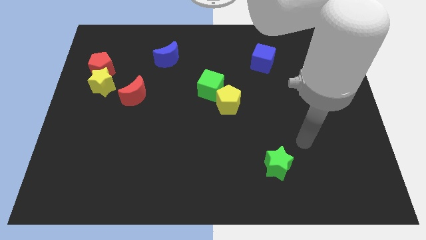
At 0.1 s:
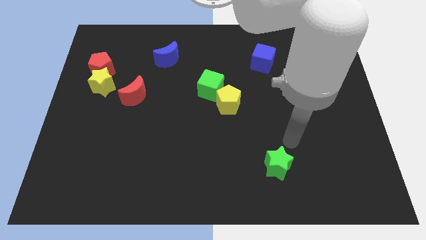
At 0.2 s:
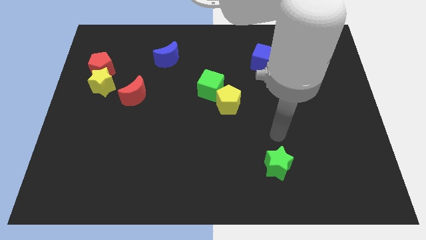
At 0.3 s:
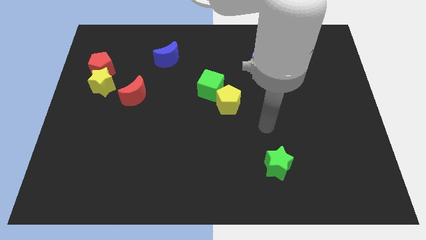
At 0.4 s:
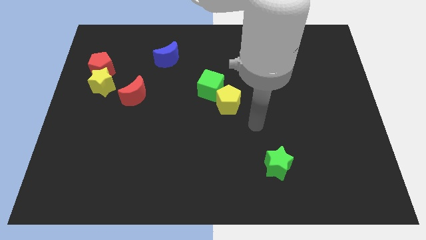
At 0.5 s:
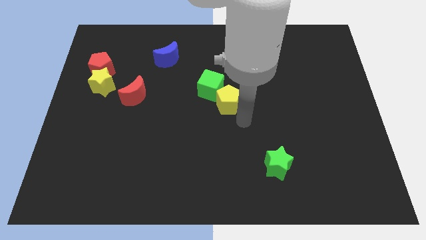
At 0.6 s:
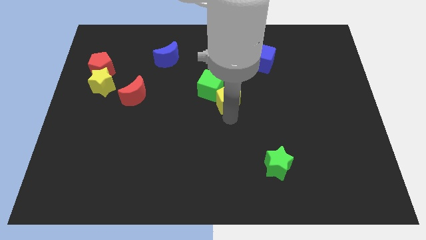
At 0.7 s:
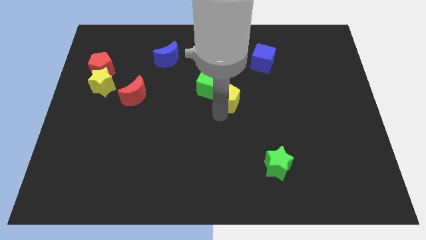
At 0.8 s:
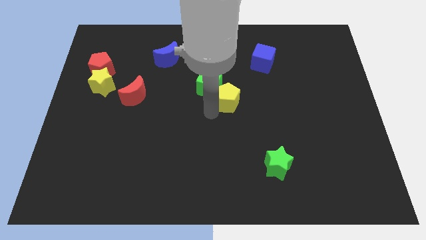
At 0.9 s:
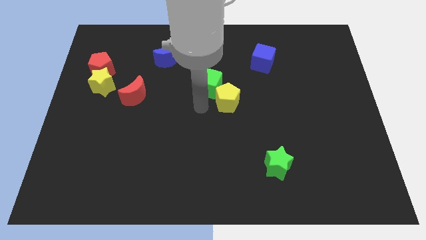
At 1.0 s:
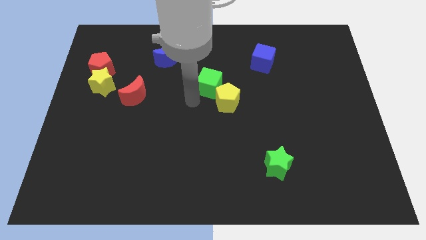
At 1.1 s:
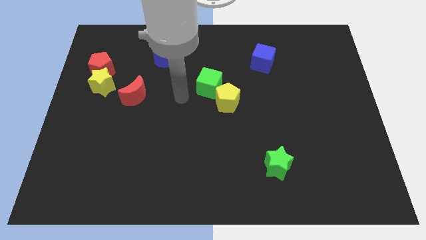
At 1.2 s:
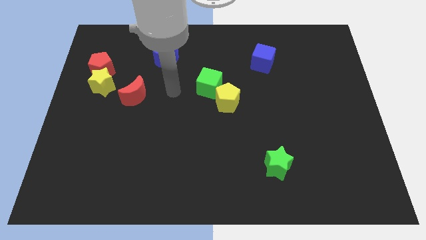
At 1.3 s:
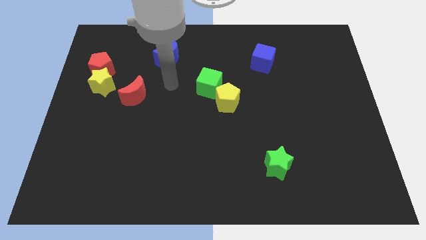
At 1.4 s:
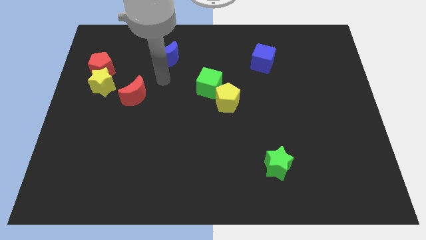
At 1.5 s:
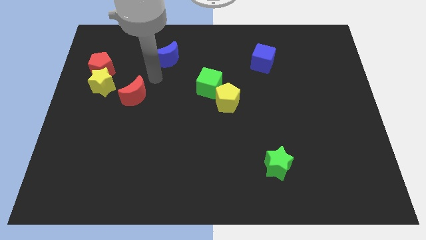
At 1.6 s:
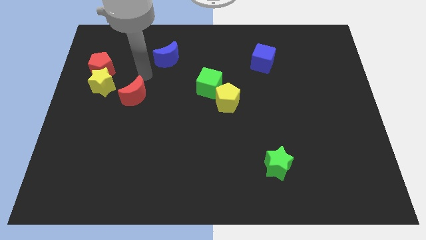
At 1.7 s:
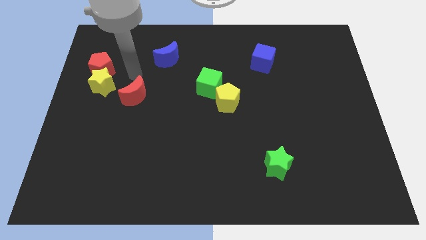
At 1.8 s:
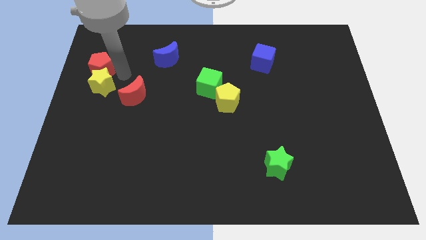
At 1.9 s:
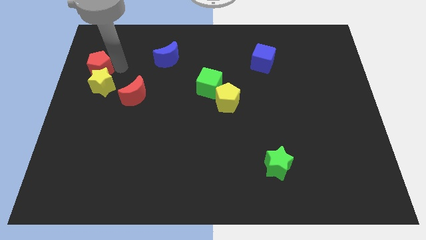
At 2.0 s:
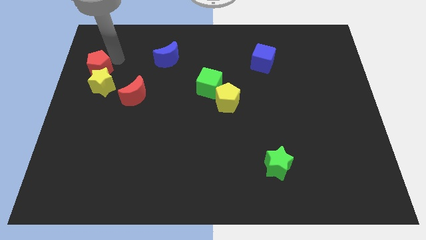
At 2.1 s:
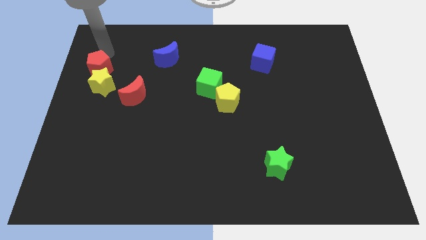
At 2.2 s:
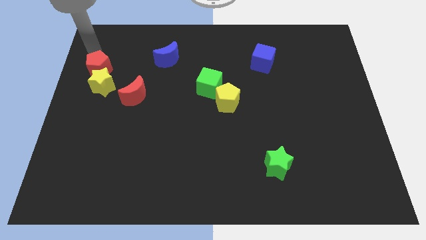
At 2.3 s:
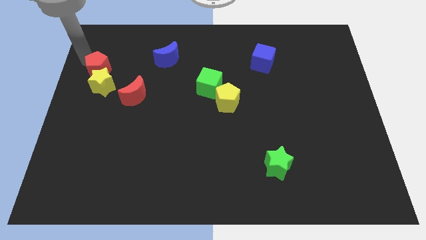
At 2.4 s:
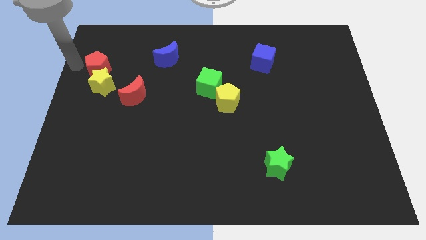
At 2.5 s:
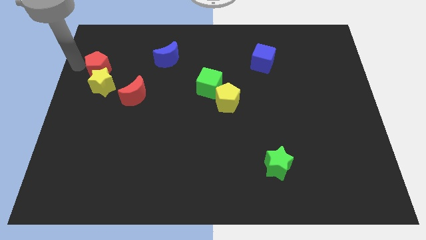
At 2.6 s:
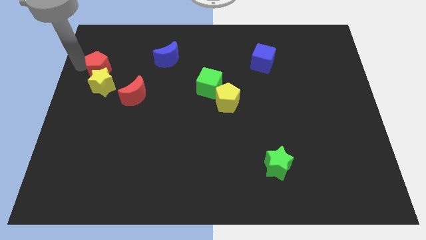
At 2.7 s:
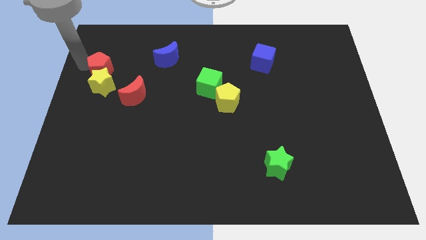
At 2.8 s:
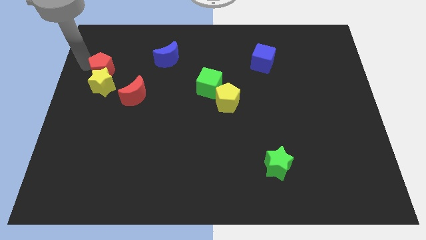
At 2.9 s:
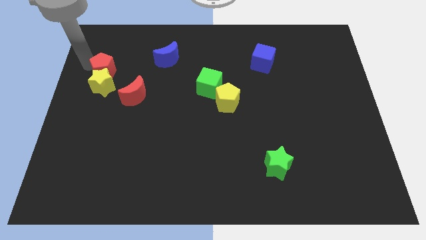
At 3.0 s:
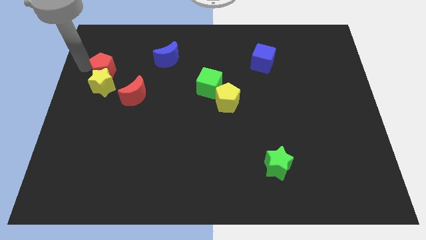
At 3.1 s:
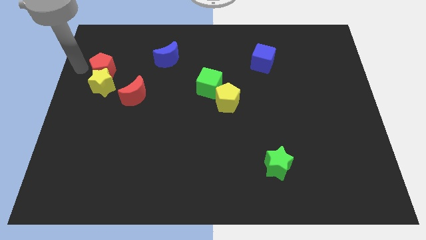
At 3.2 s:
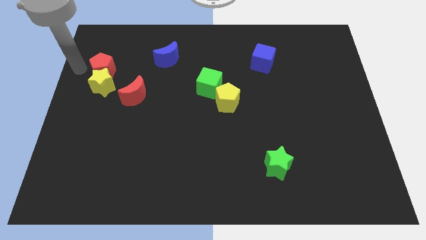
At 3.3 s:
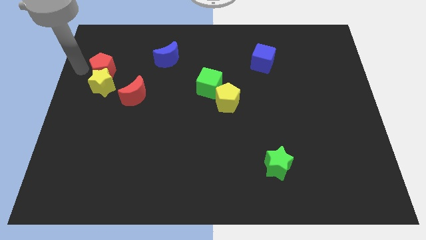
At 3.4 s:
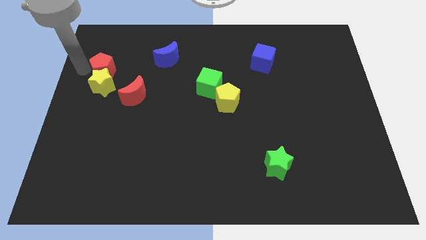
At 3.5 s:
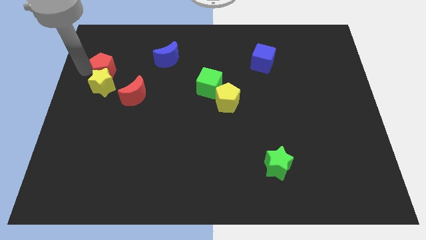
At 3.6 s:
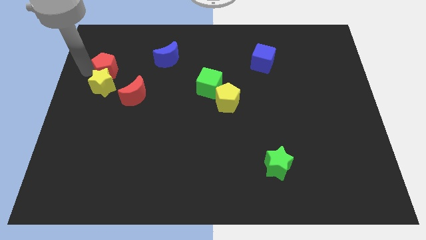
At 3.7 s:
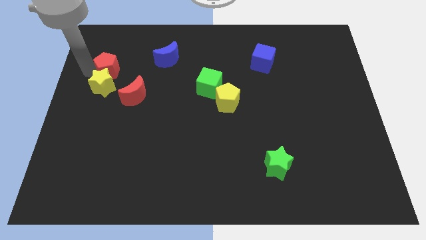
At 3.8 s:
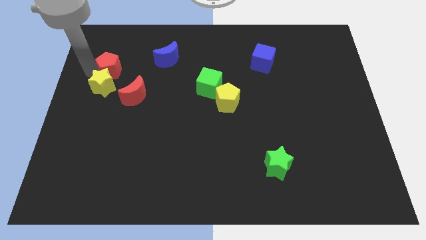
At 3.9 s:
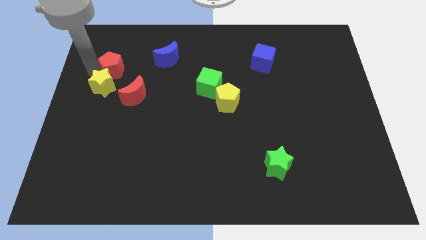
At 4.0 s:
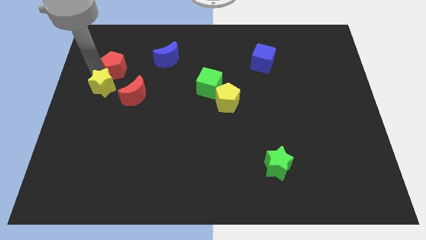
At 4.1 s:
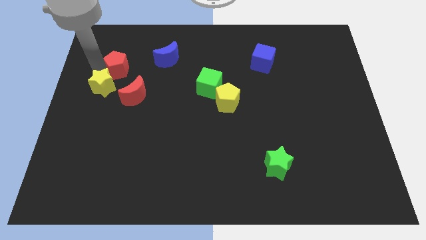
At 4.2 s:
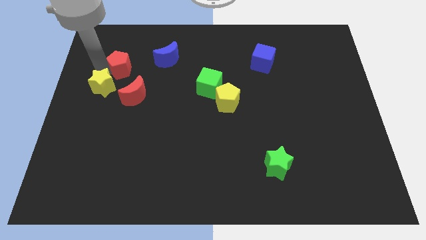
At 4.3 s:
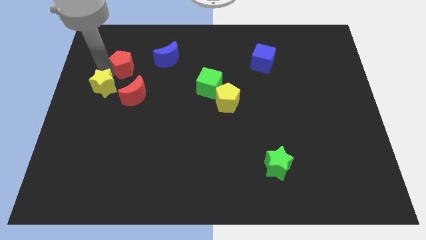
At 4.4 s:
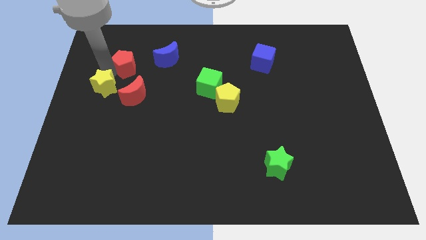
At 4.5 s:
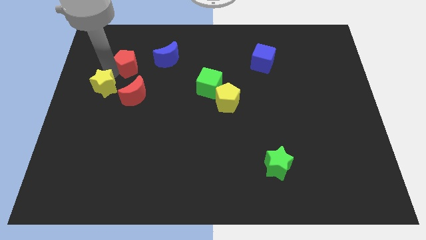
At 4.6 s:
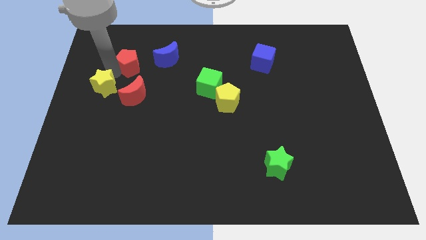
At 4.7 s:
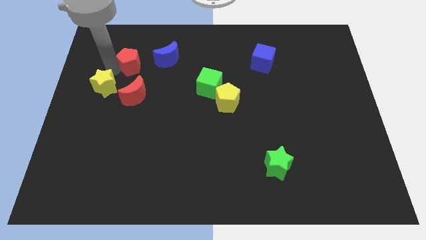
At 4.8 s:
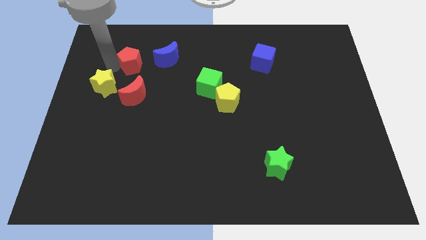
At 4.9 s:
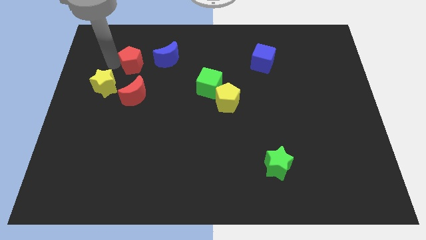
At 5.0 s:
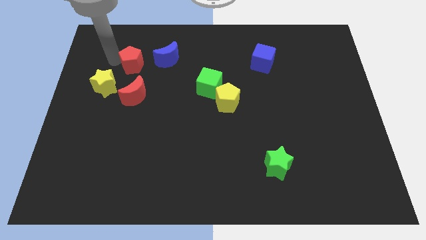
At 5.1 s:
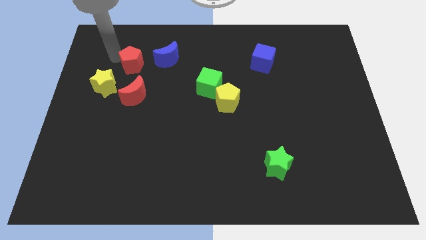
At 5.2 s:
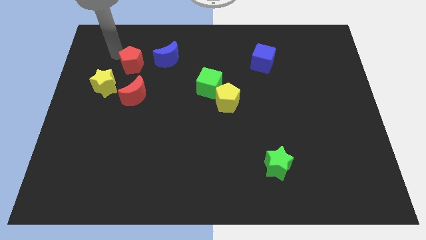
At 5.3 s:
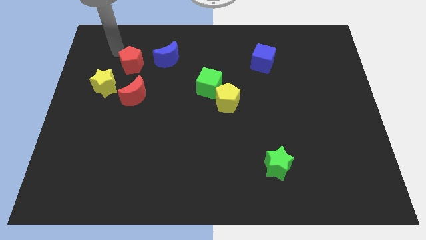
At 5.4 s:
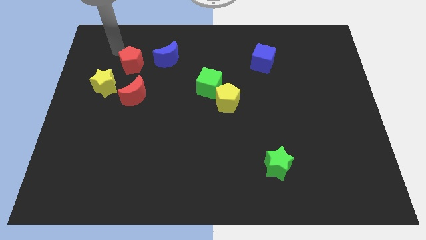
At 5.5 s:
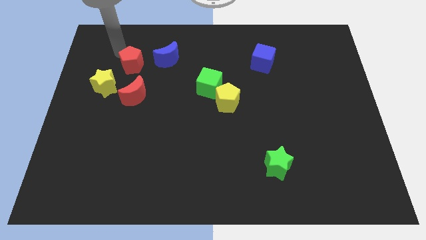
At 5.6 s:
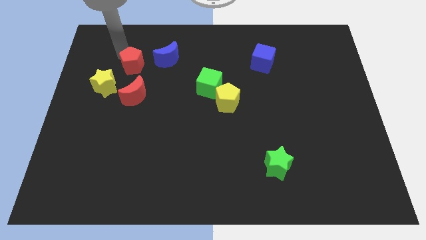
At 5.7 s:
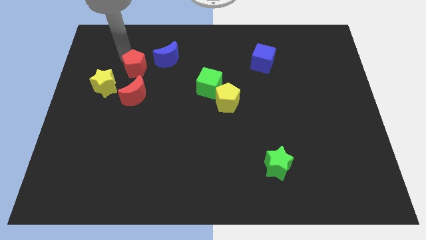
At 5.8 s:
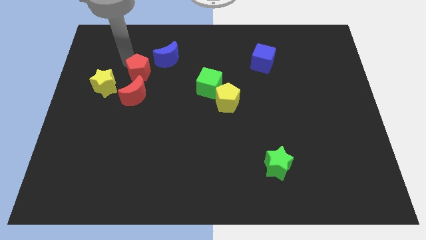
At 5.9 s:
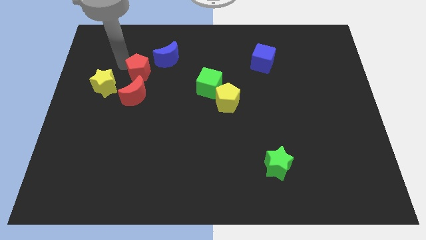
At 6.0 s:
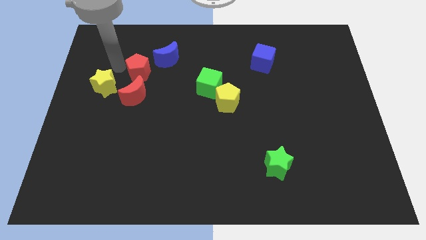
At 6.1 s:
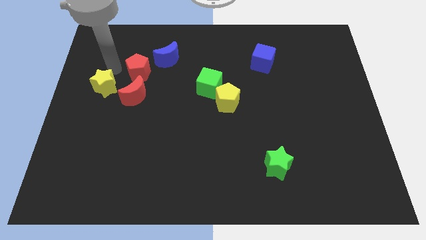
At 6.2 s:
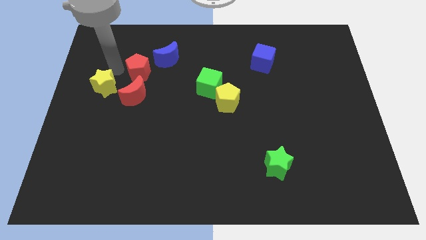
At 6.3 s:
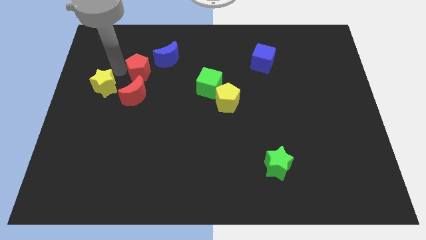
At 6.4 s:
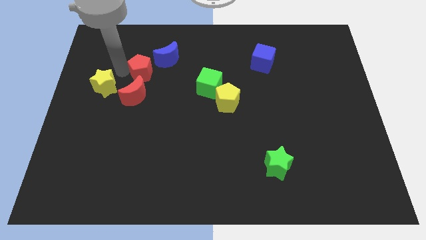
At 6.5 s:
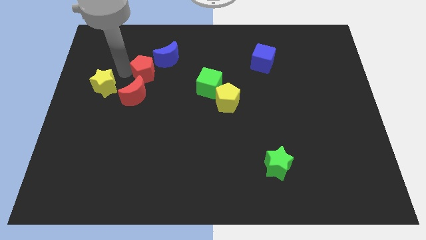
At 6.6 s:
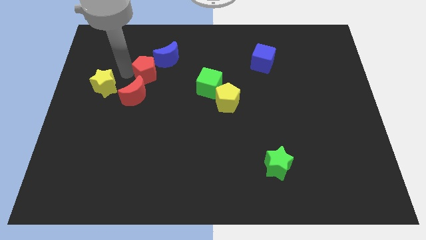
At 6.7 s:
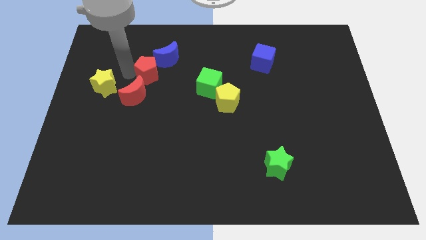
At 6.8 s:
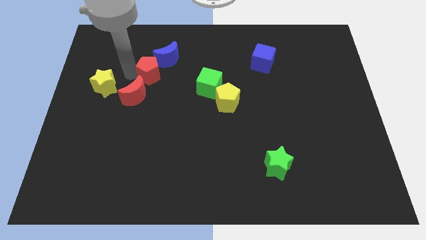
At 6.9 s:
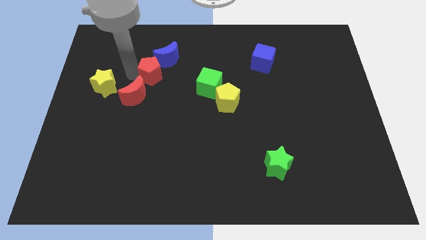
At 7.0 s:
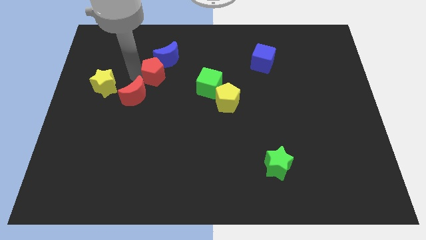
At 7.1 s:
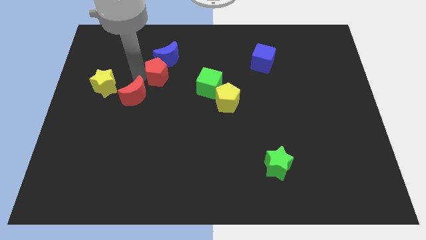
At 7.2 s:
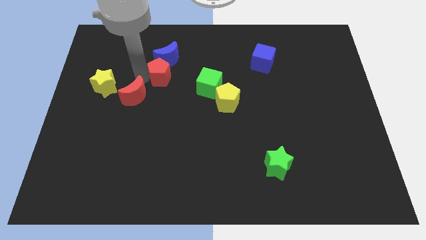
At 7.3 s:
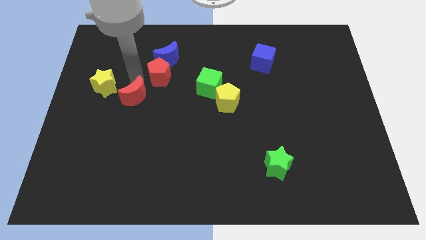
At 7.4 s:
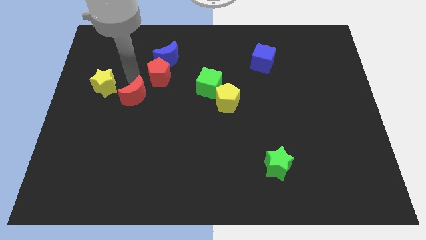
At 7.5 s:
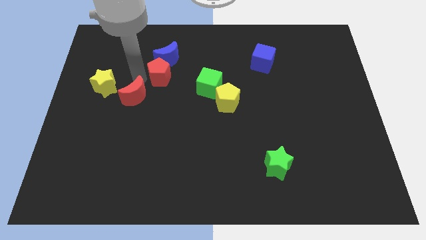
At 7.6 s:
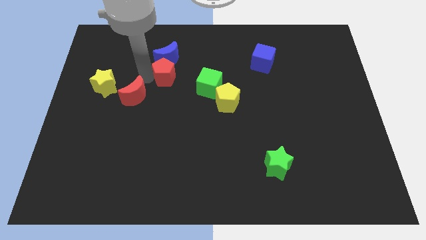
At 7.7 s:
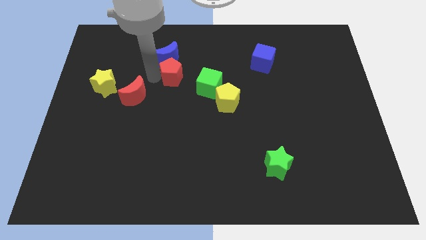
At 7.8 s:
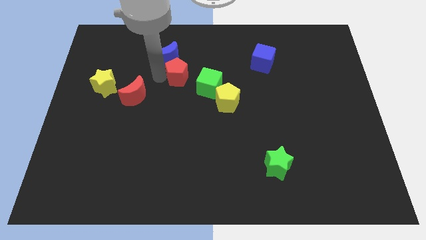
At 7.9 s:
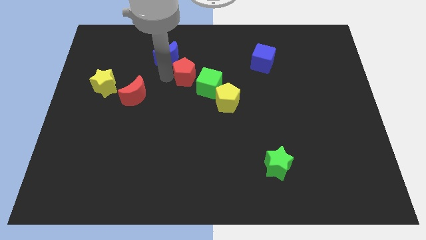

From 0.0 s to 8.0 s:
slide the red pentagon to the right

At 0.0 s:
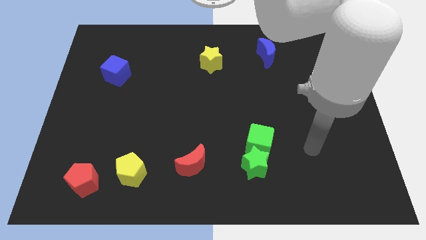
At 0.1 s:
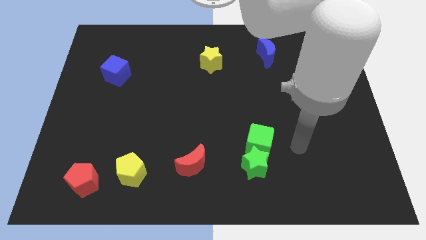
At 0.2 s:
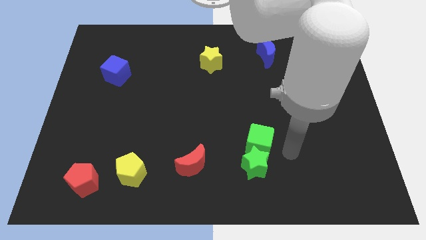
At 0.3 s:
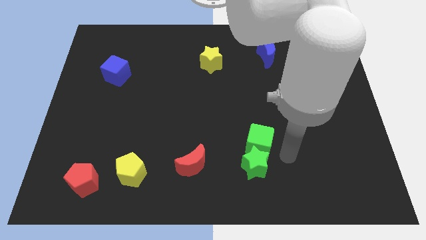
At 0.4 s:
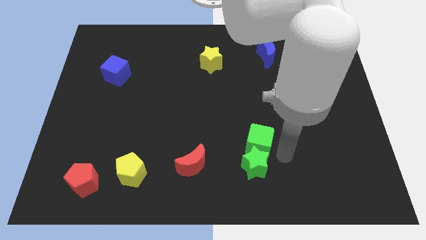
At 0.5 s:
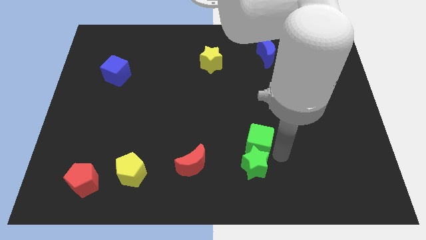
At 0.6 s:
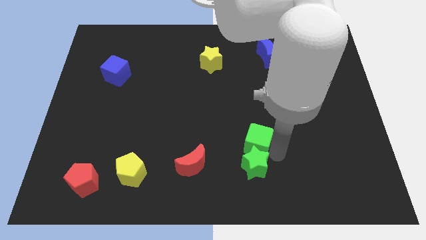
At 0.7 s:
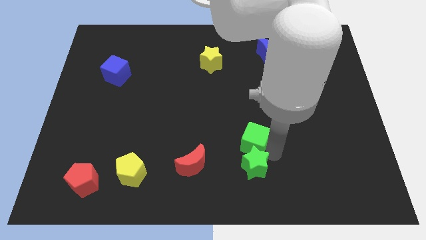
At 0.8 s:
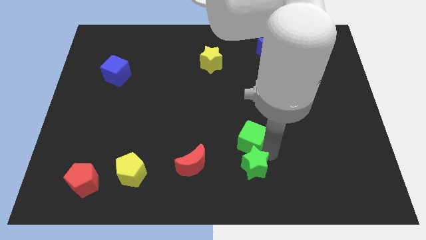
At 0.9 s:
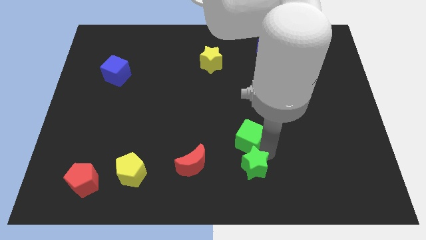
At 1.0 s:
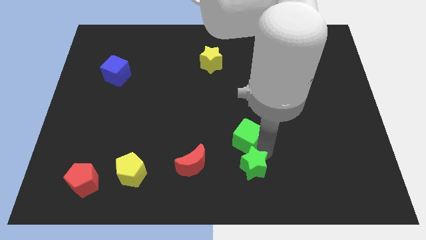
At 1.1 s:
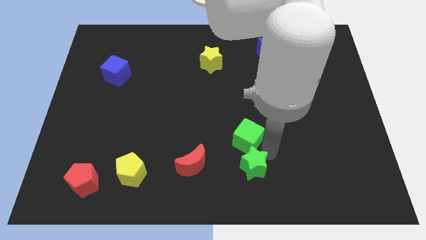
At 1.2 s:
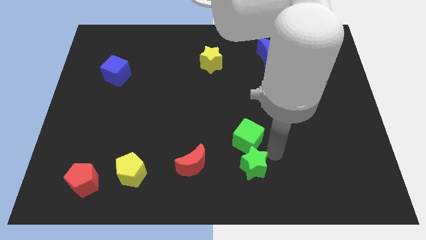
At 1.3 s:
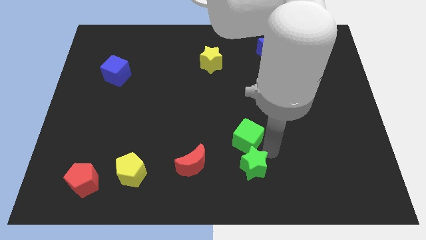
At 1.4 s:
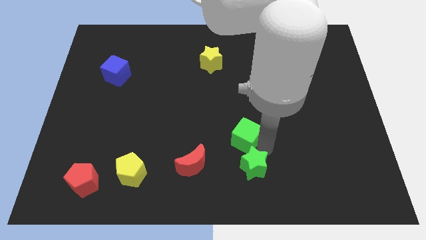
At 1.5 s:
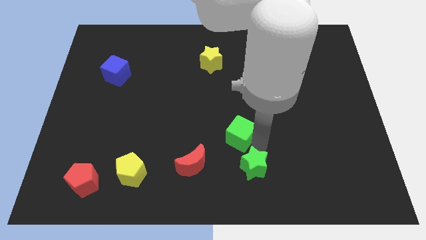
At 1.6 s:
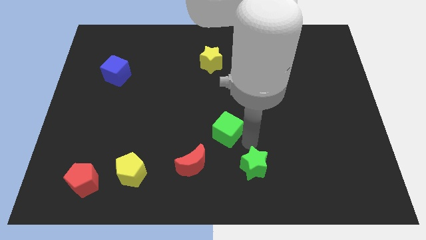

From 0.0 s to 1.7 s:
move the green cube somewhat up and to the left diagonally
